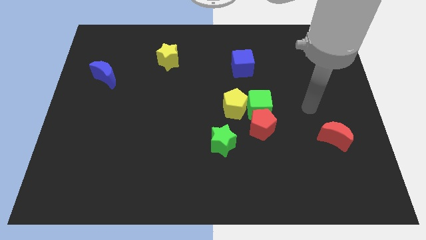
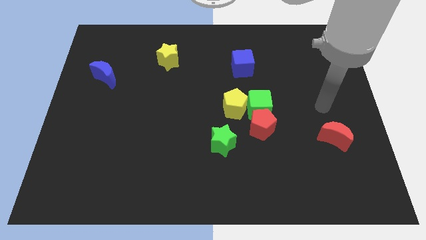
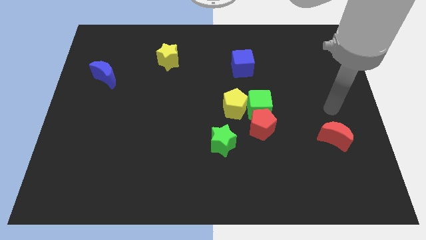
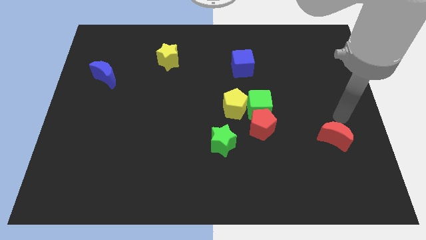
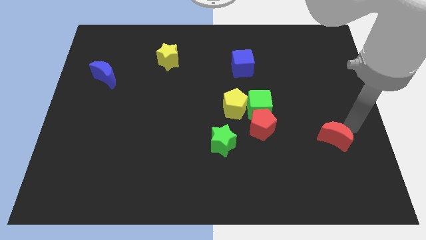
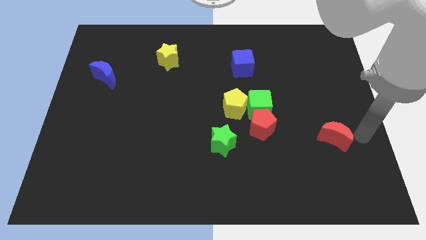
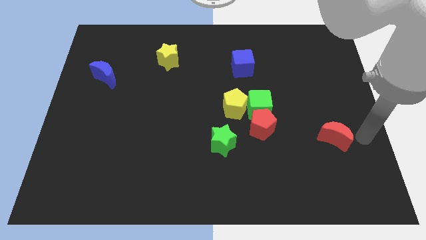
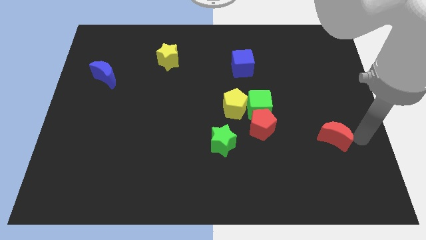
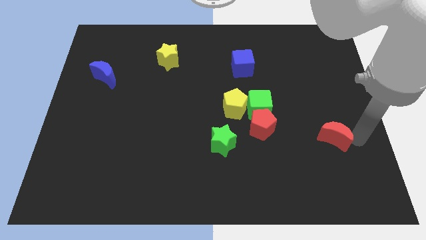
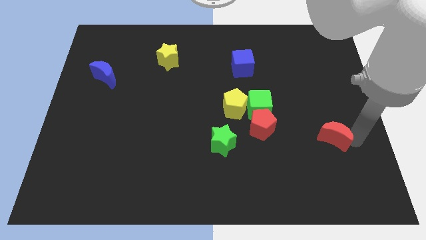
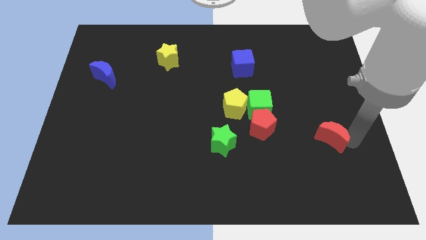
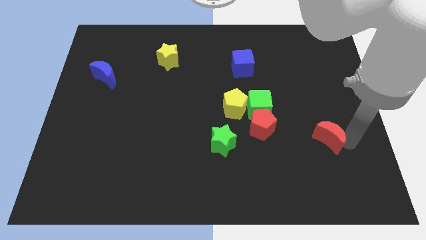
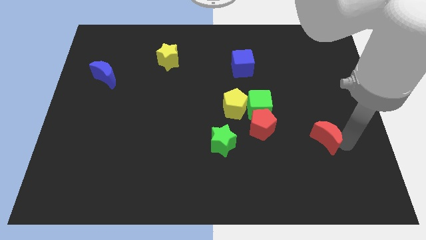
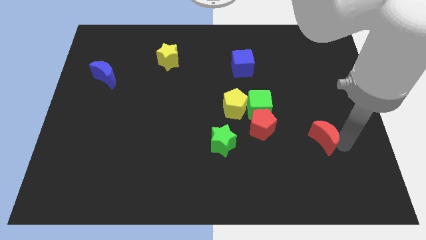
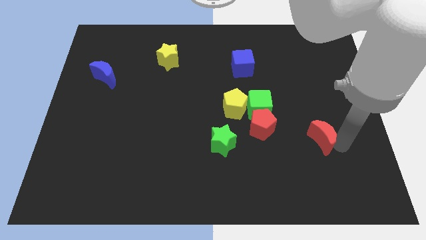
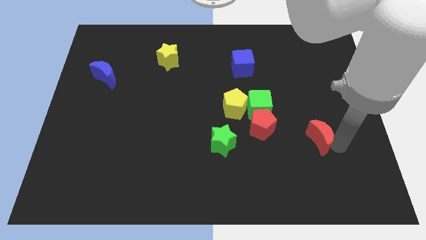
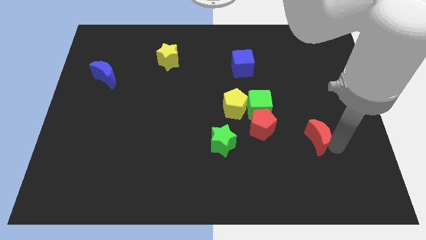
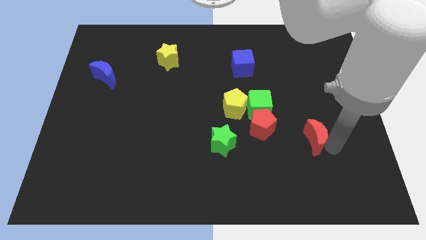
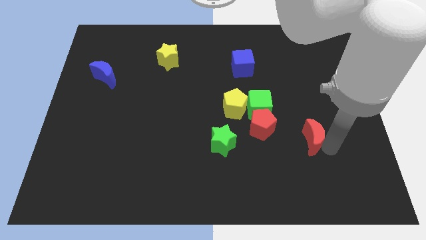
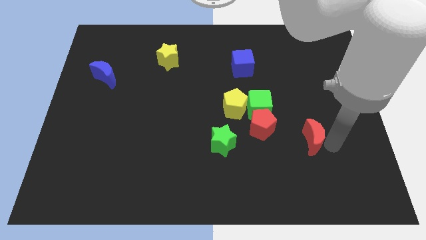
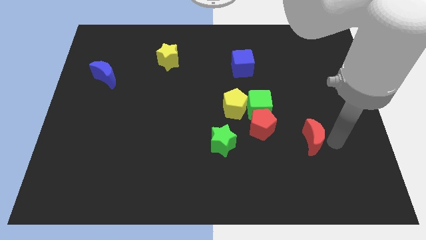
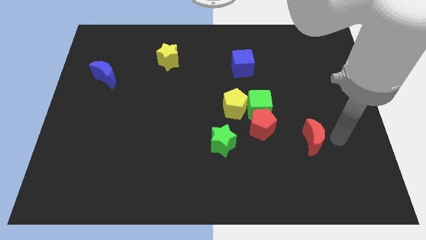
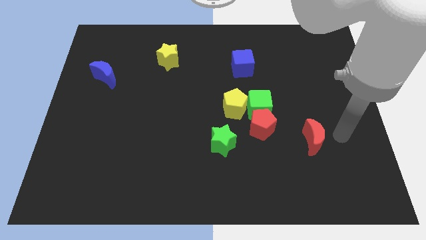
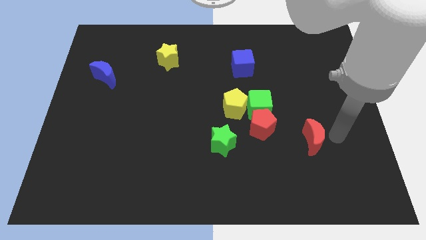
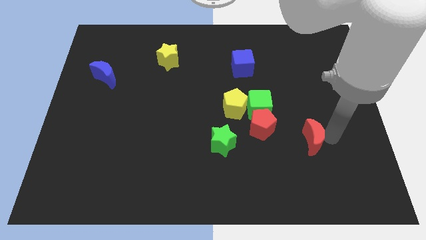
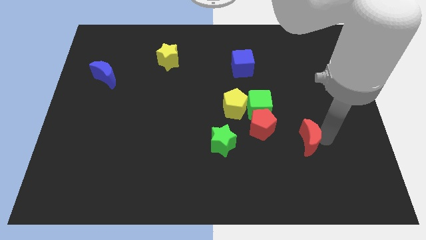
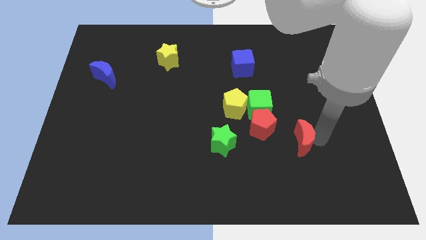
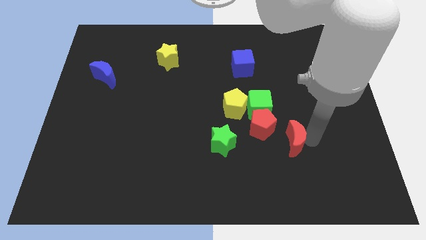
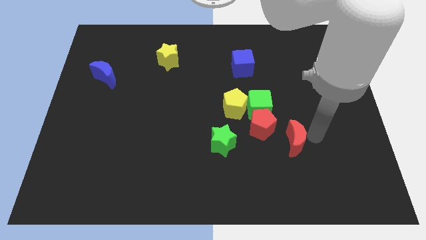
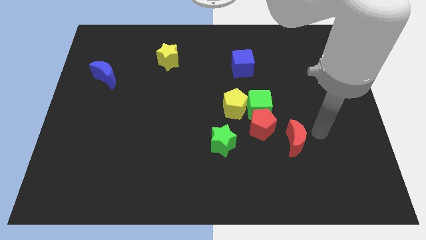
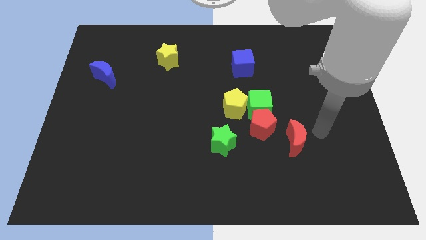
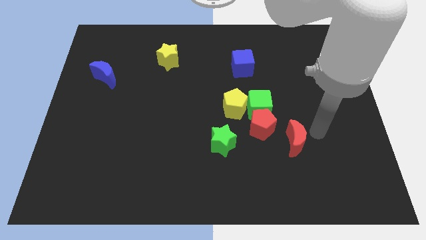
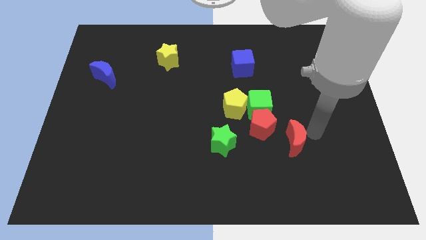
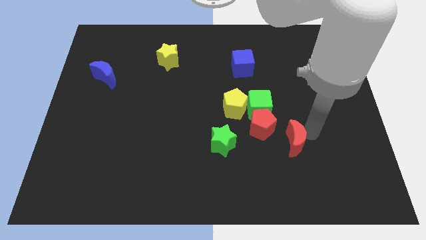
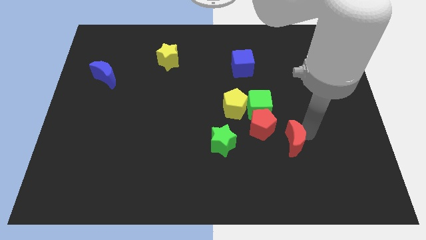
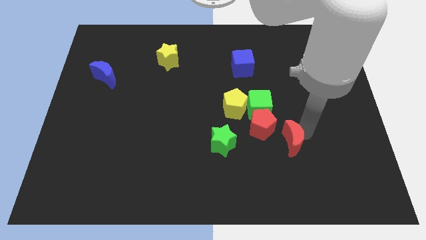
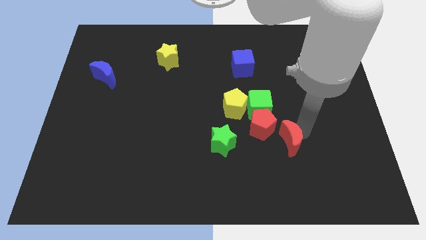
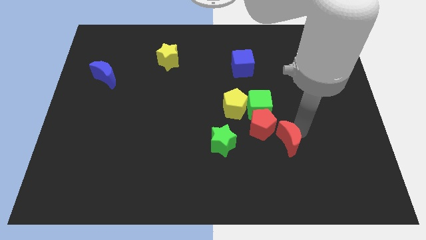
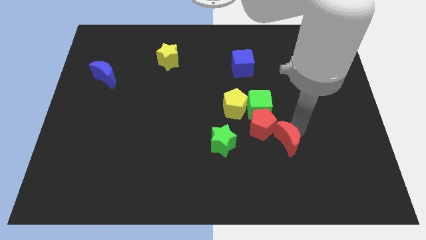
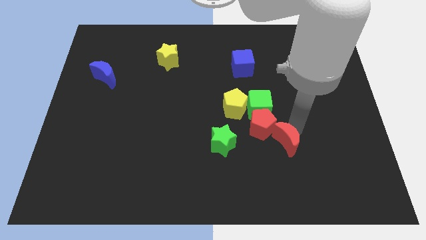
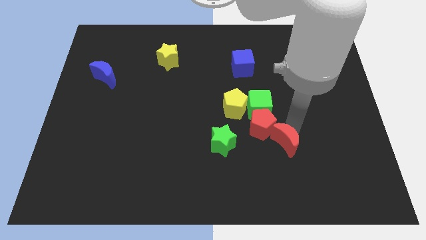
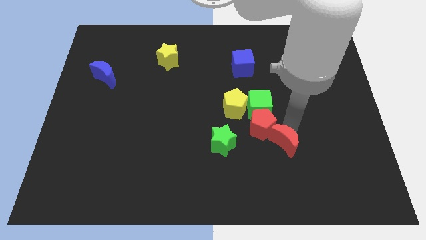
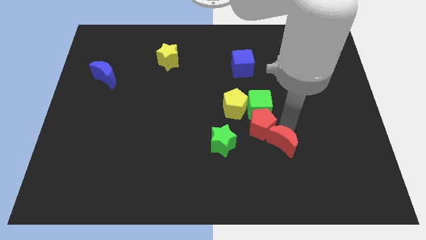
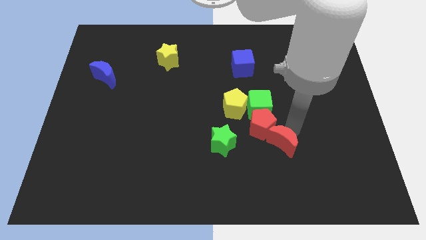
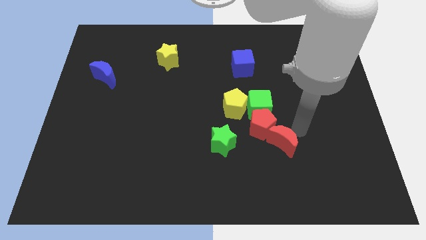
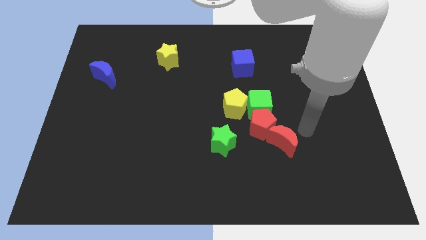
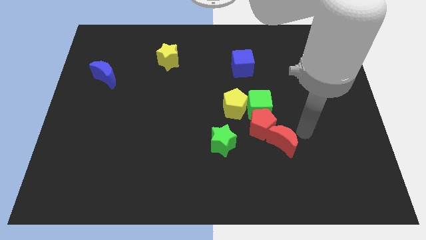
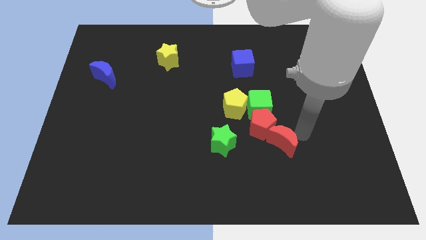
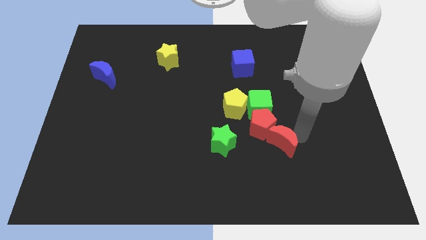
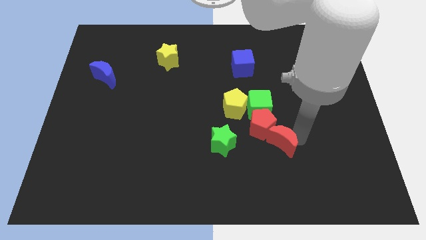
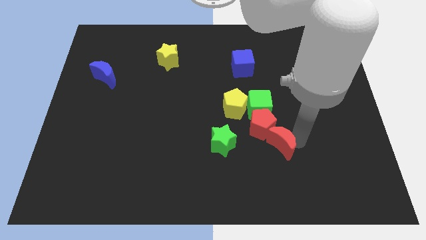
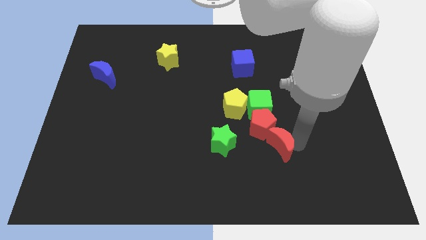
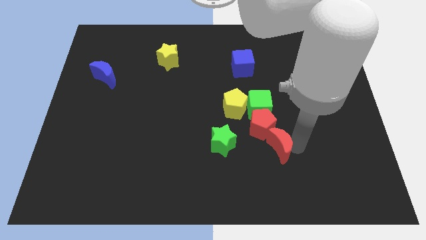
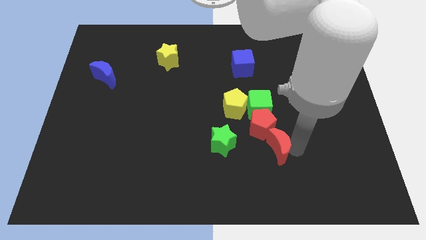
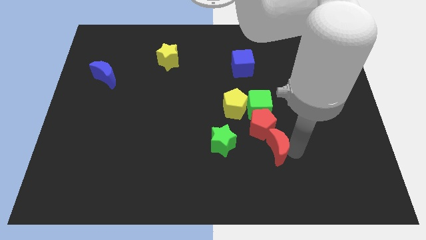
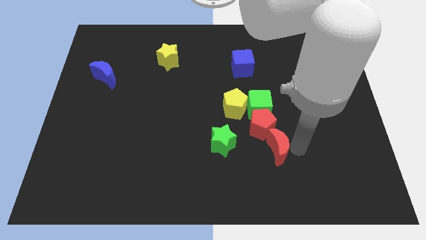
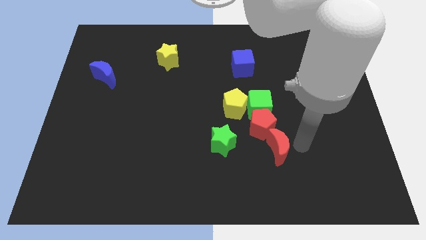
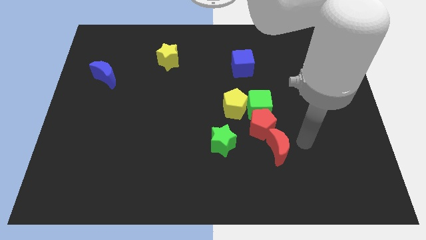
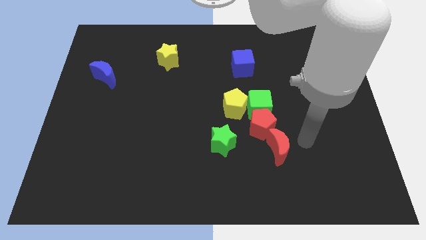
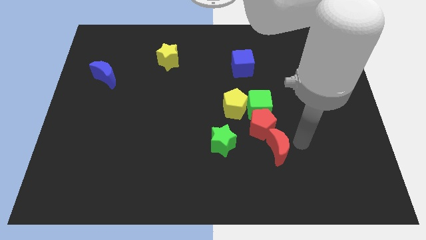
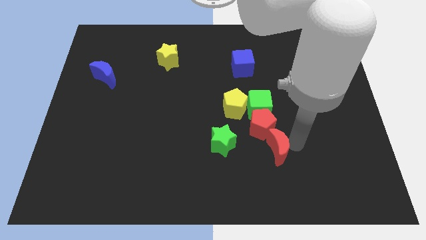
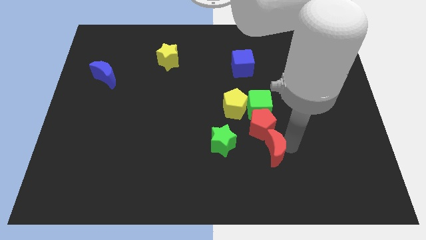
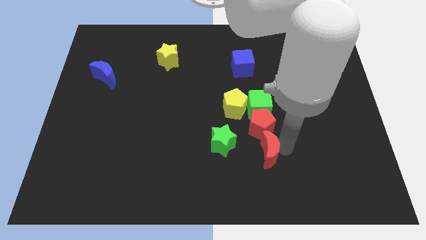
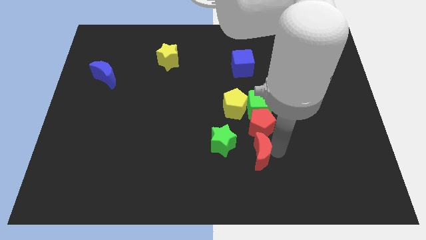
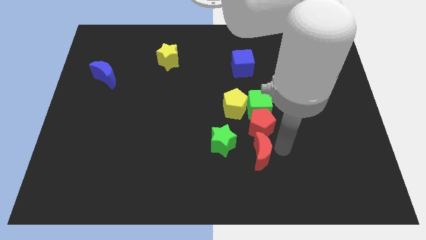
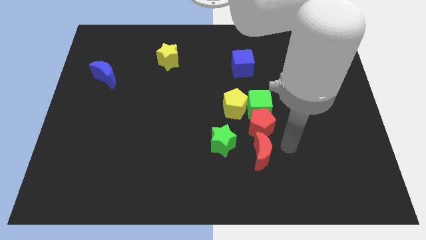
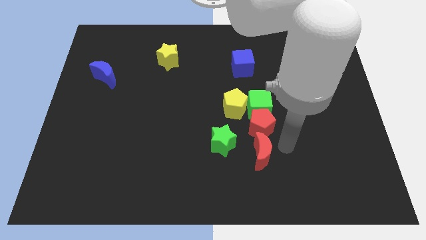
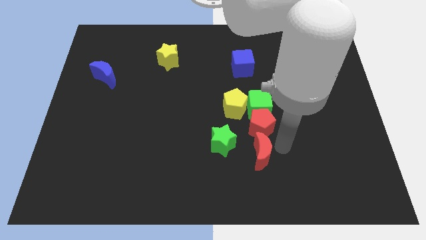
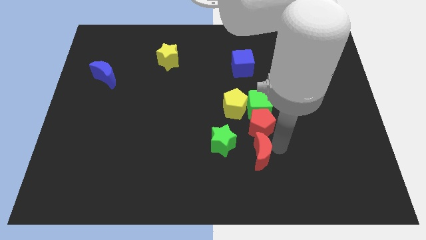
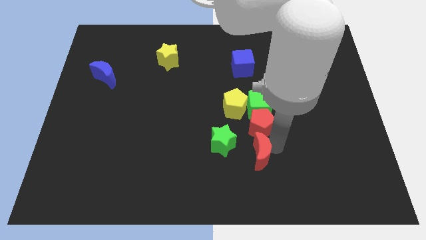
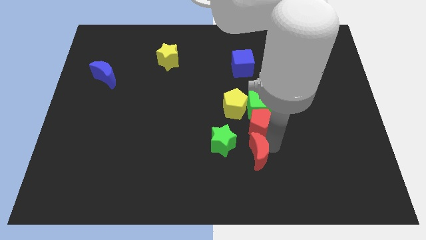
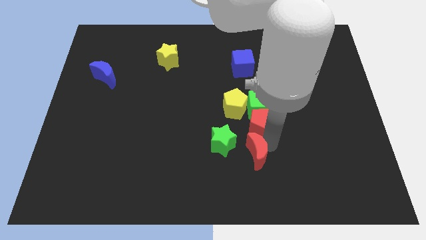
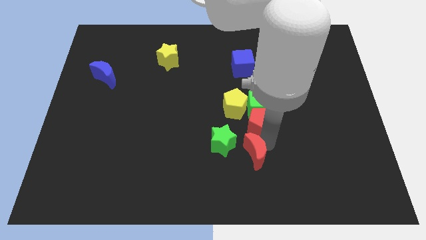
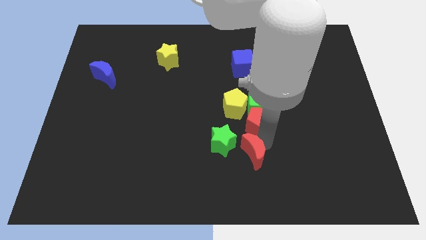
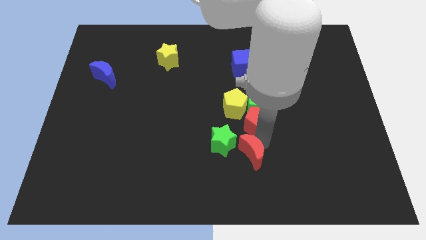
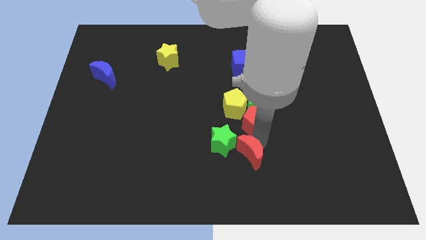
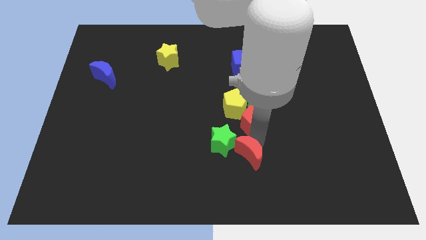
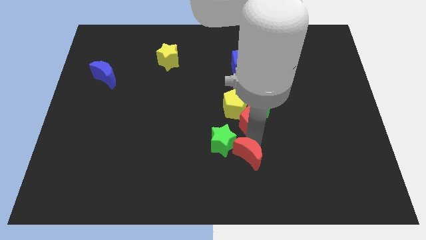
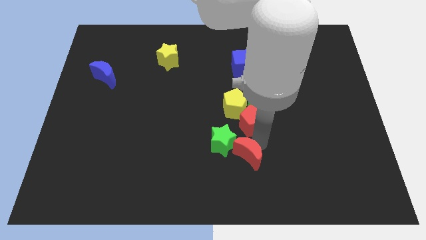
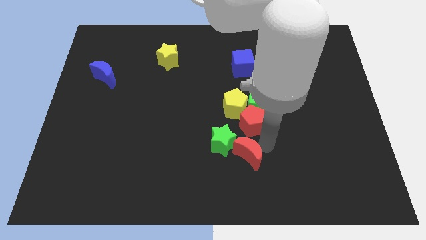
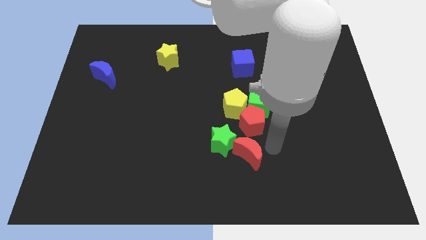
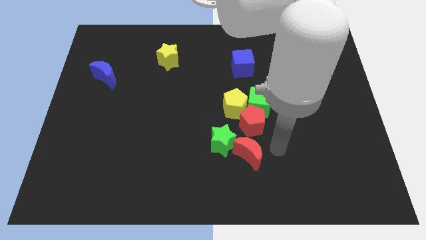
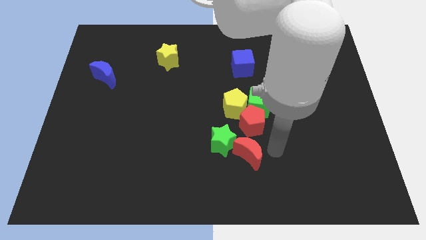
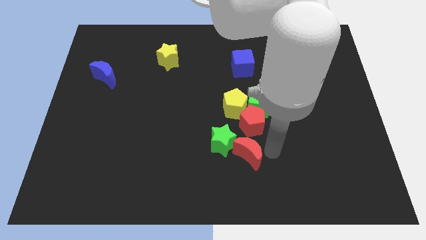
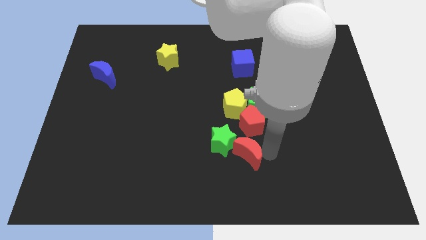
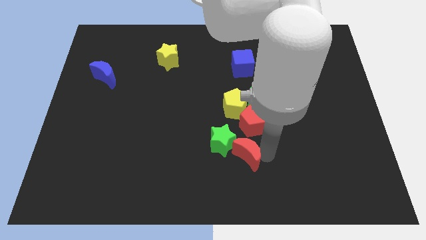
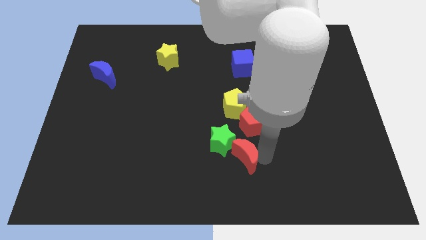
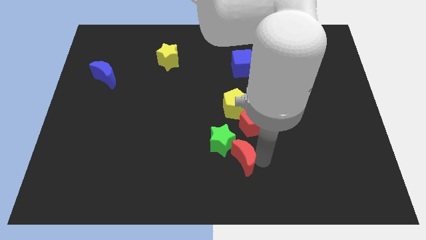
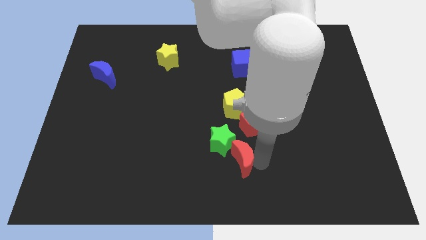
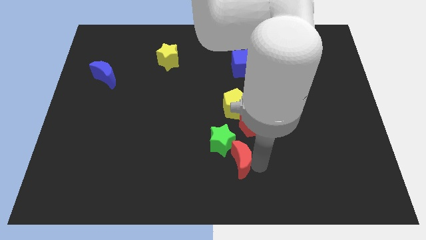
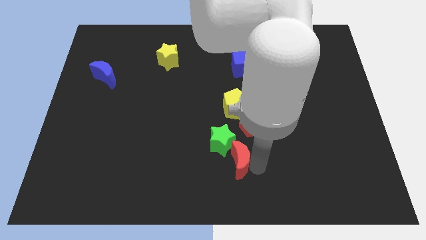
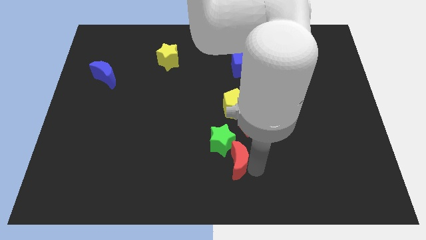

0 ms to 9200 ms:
push the red moon left
